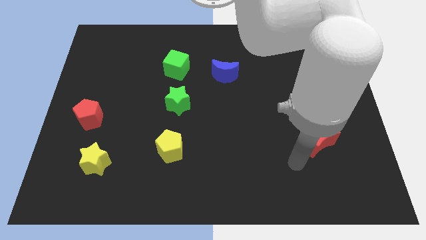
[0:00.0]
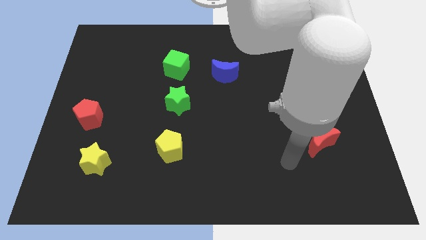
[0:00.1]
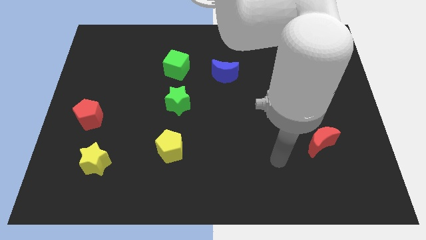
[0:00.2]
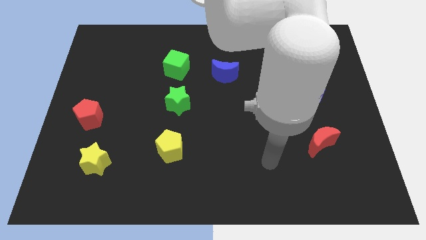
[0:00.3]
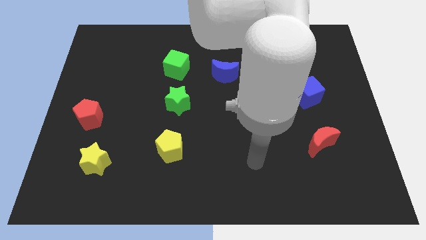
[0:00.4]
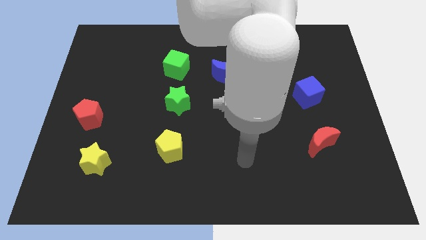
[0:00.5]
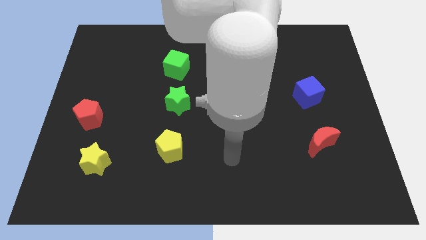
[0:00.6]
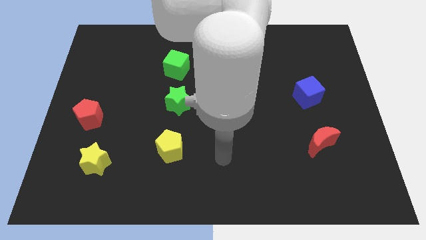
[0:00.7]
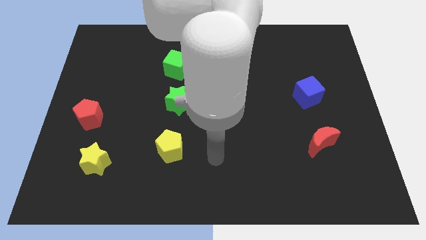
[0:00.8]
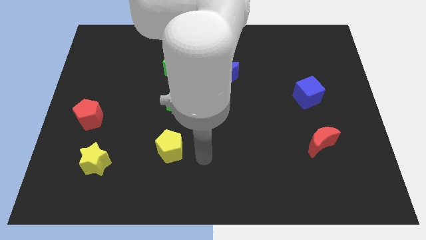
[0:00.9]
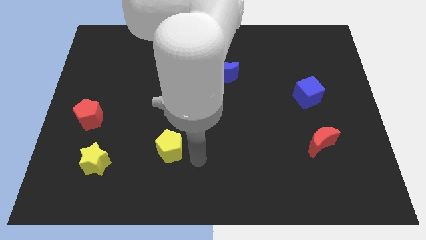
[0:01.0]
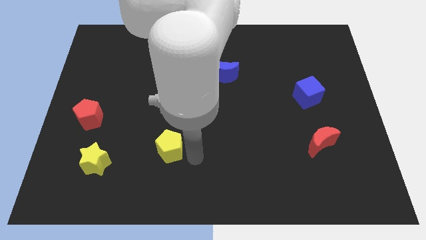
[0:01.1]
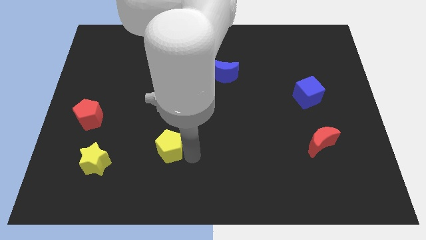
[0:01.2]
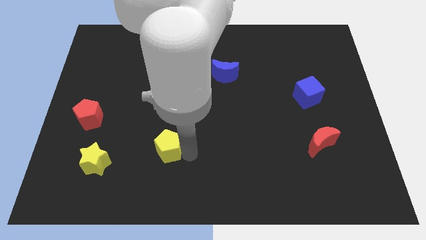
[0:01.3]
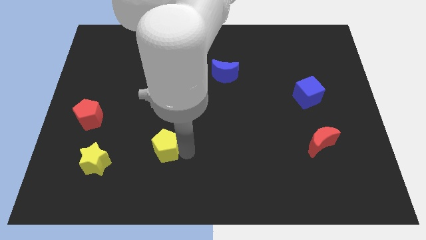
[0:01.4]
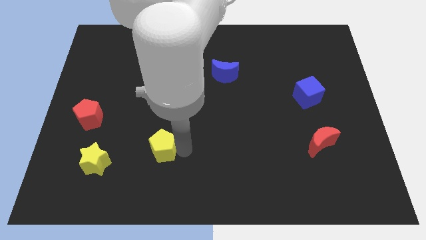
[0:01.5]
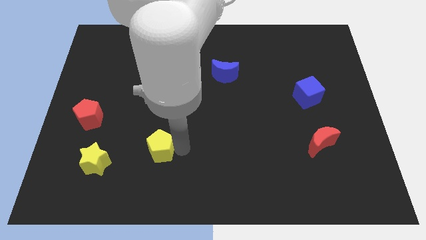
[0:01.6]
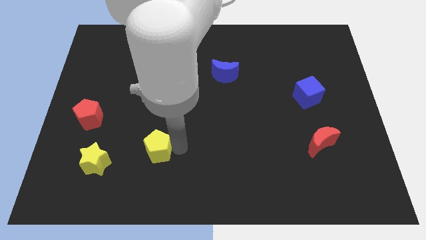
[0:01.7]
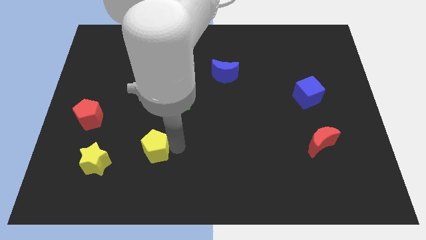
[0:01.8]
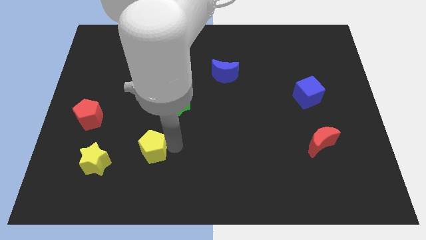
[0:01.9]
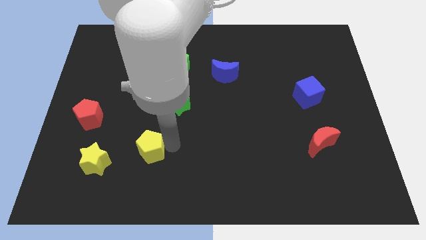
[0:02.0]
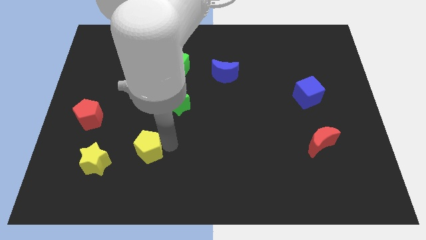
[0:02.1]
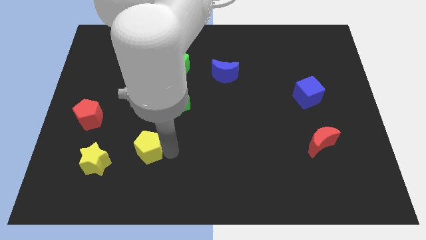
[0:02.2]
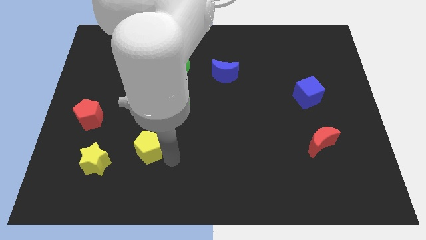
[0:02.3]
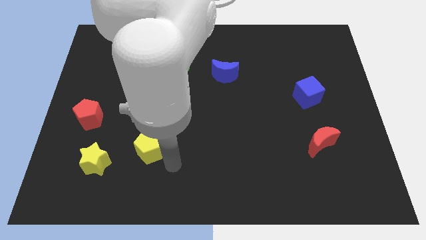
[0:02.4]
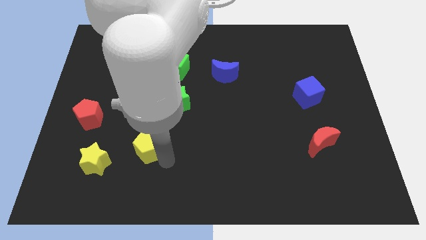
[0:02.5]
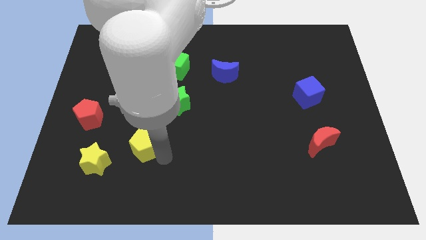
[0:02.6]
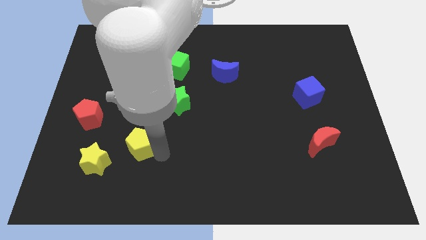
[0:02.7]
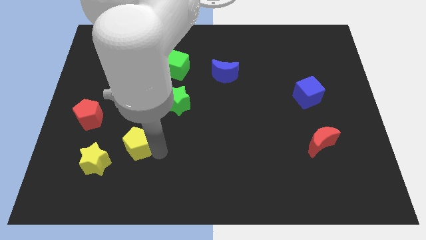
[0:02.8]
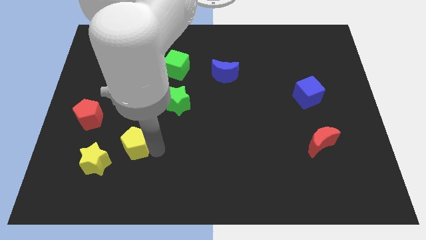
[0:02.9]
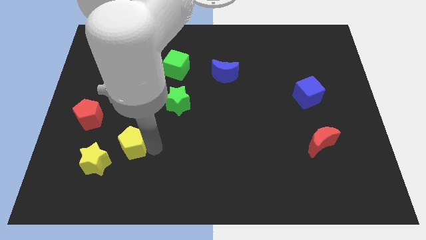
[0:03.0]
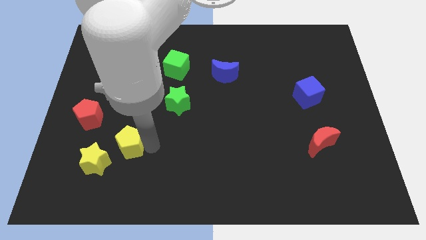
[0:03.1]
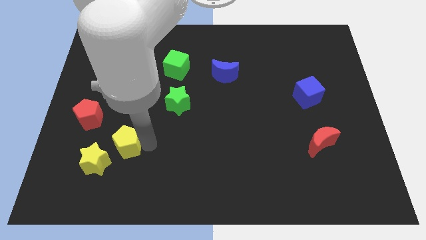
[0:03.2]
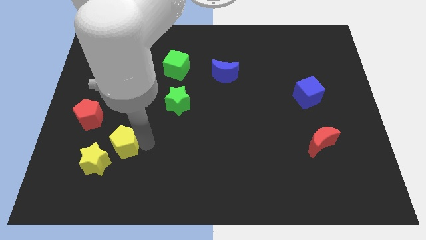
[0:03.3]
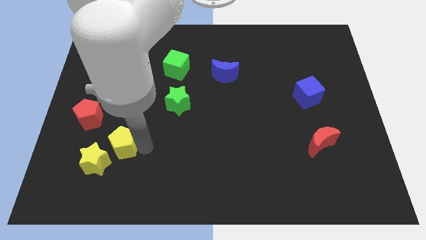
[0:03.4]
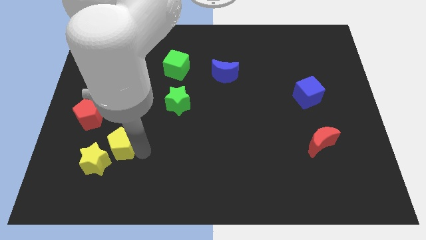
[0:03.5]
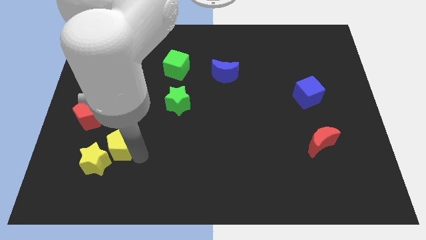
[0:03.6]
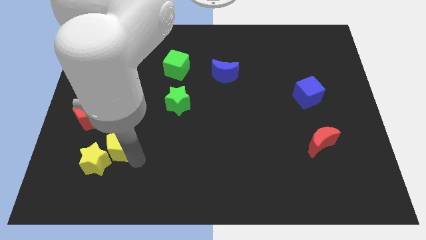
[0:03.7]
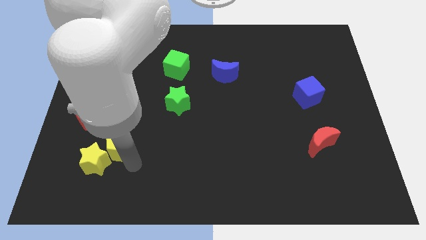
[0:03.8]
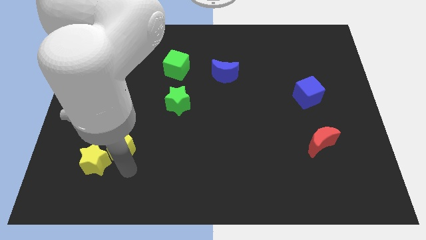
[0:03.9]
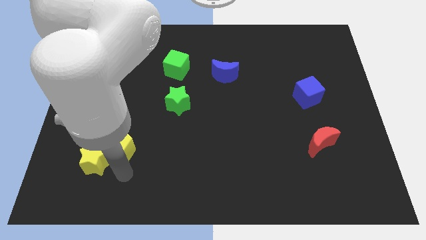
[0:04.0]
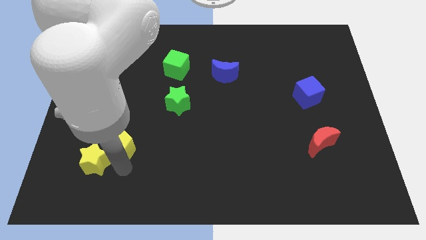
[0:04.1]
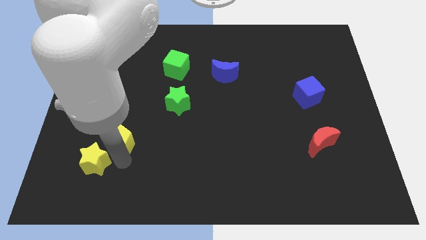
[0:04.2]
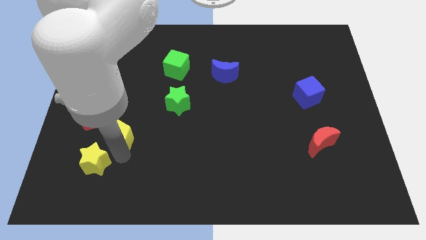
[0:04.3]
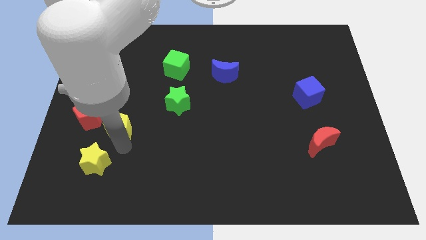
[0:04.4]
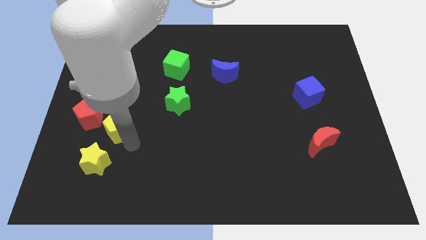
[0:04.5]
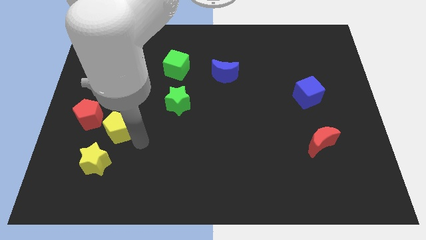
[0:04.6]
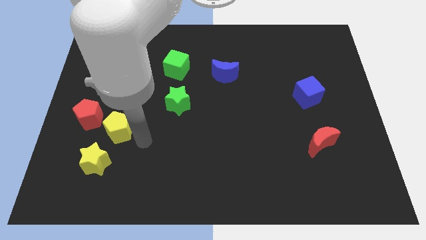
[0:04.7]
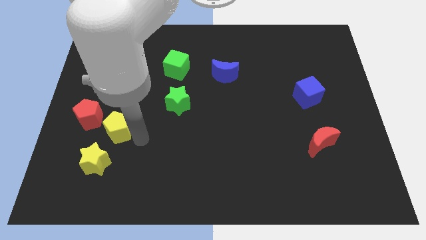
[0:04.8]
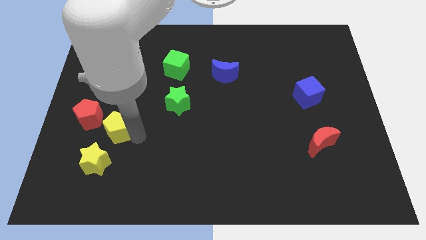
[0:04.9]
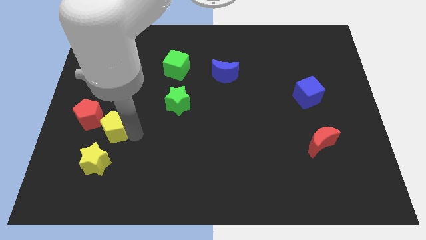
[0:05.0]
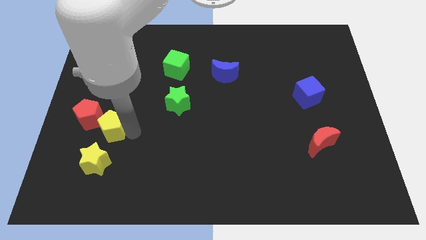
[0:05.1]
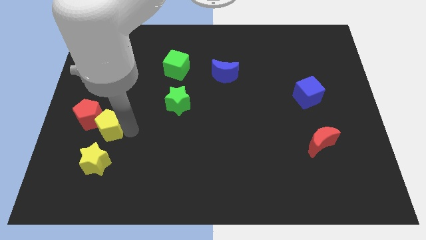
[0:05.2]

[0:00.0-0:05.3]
move the yellow pentagon towards the red pentagon

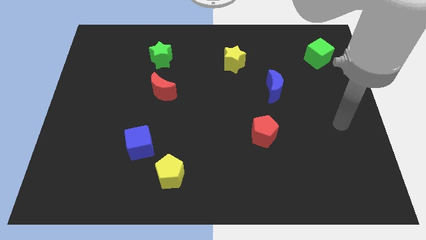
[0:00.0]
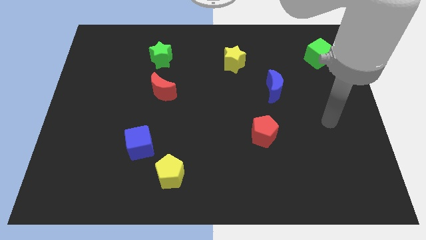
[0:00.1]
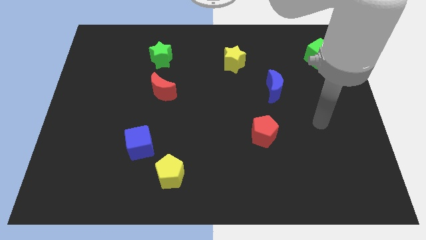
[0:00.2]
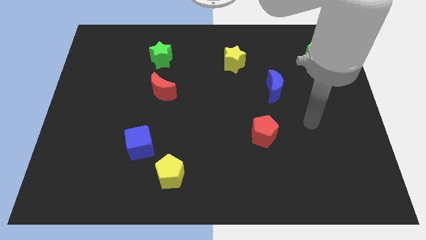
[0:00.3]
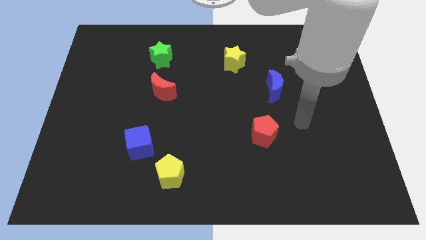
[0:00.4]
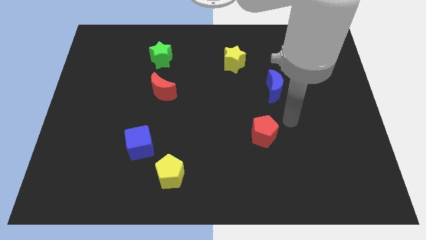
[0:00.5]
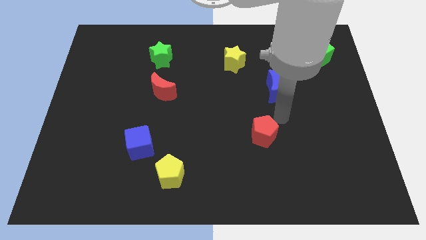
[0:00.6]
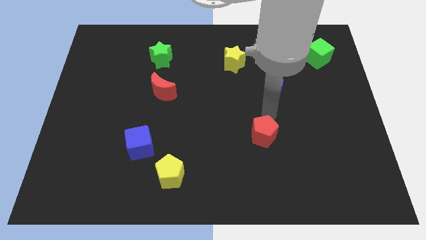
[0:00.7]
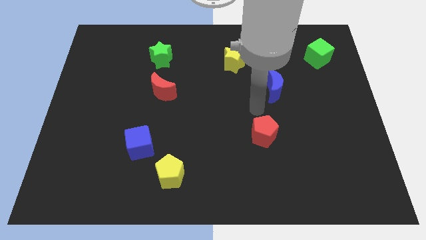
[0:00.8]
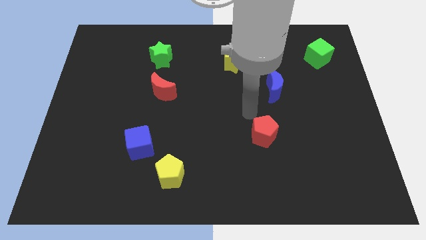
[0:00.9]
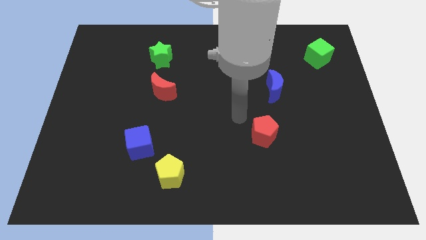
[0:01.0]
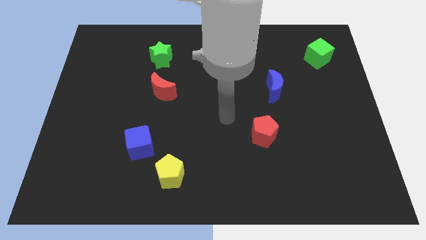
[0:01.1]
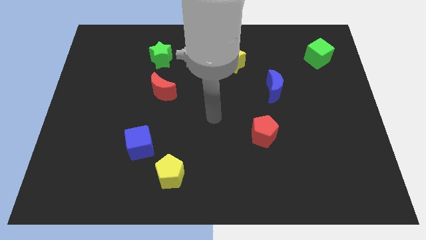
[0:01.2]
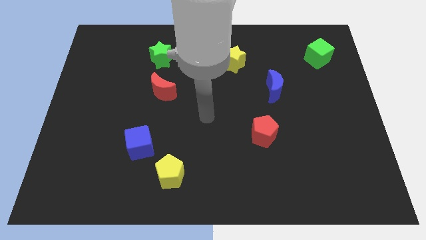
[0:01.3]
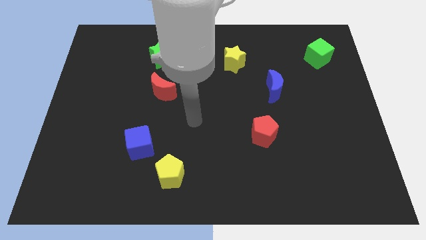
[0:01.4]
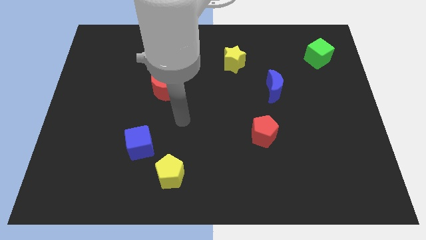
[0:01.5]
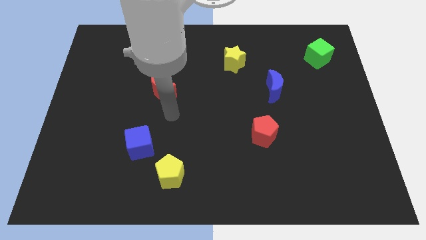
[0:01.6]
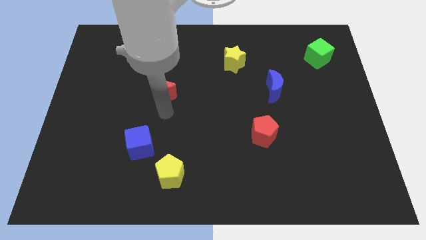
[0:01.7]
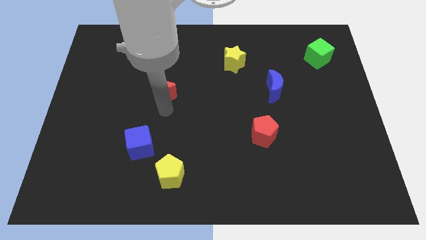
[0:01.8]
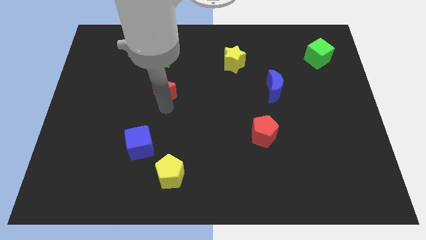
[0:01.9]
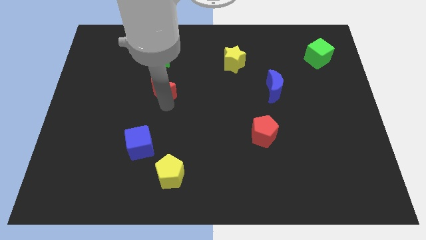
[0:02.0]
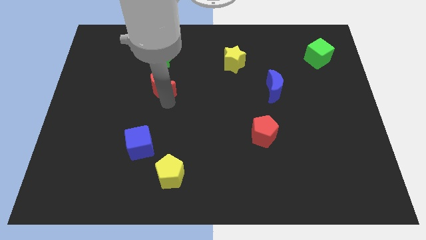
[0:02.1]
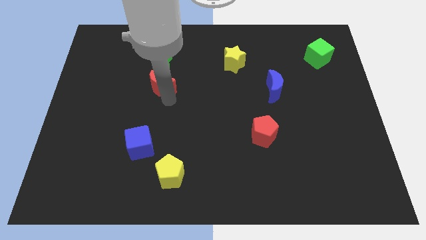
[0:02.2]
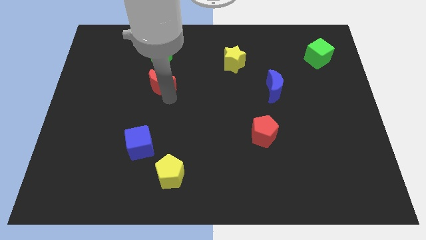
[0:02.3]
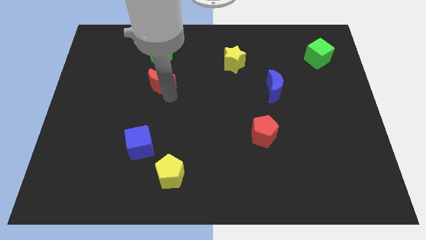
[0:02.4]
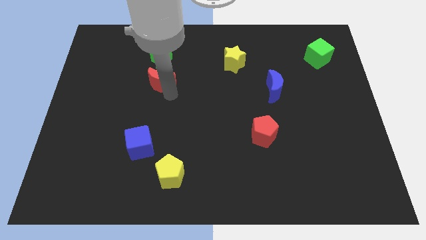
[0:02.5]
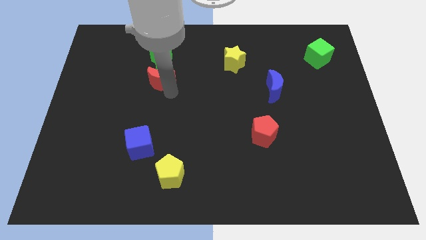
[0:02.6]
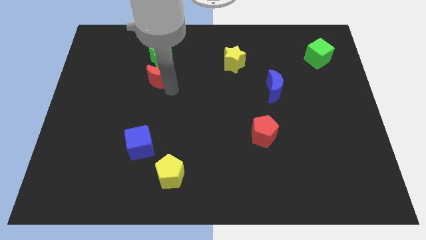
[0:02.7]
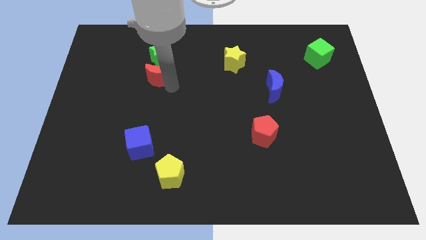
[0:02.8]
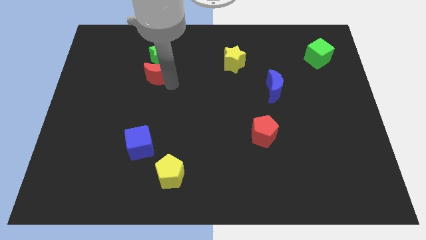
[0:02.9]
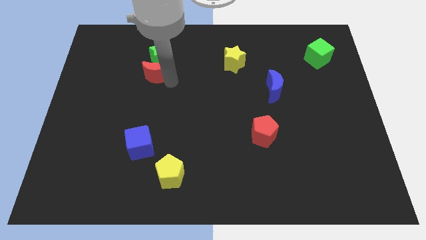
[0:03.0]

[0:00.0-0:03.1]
move the red moon next to the green star
